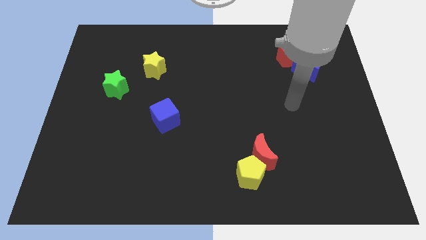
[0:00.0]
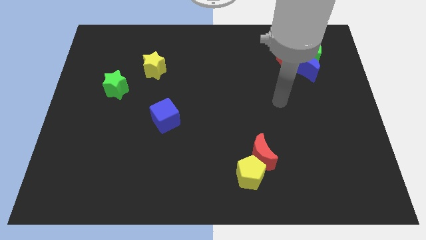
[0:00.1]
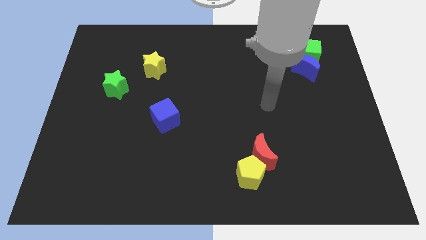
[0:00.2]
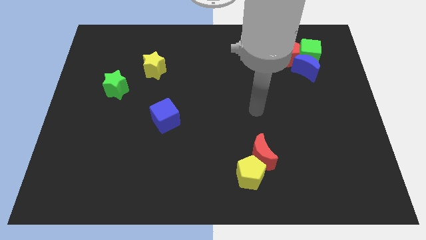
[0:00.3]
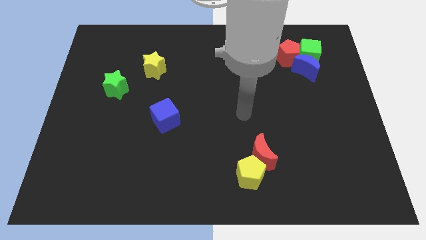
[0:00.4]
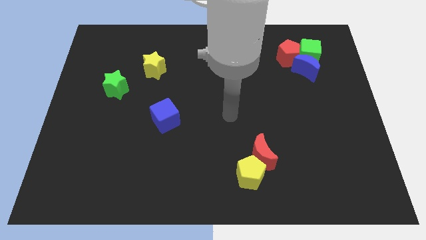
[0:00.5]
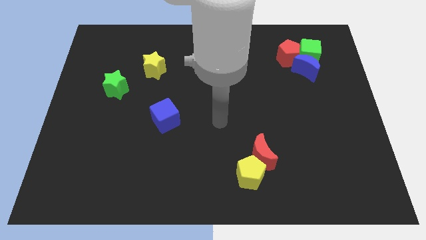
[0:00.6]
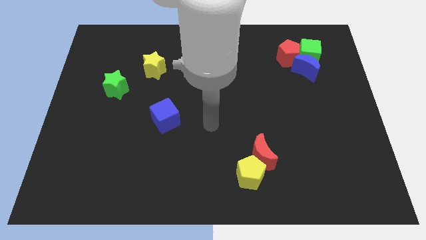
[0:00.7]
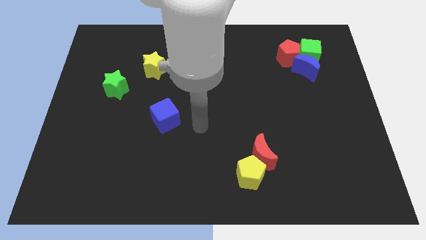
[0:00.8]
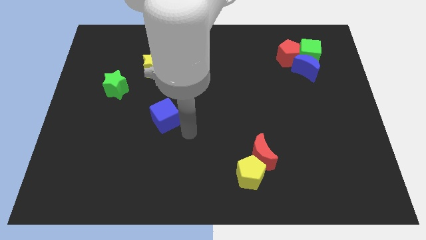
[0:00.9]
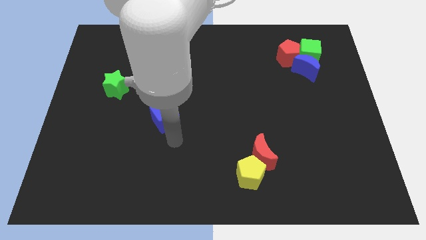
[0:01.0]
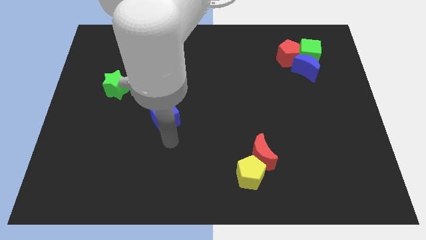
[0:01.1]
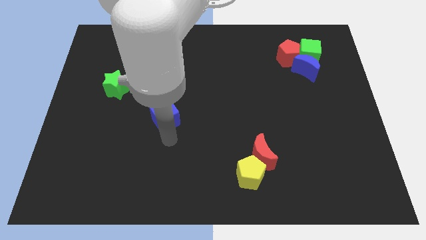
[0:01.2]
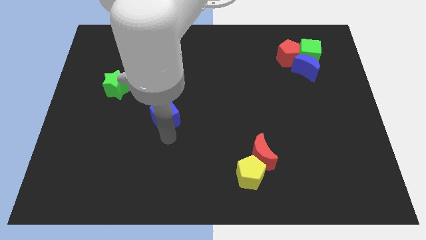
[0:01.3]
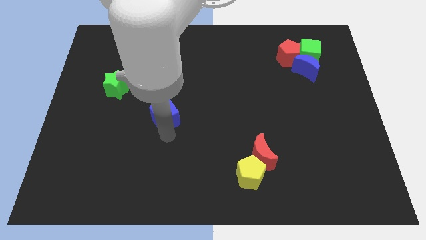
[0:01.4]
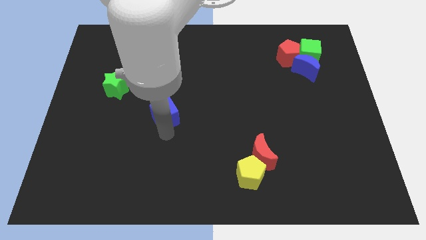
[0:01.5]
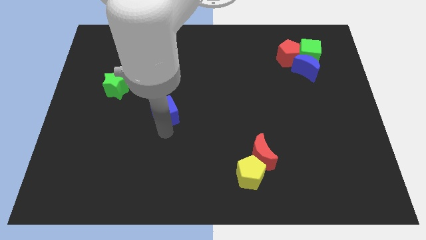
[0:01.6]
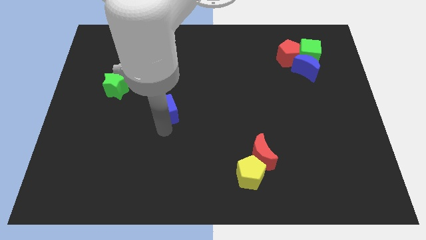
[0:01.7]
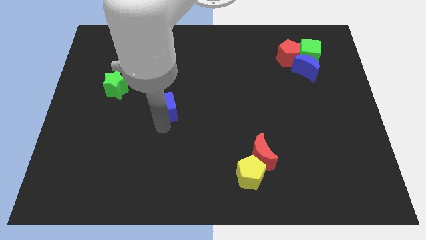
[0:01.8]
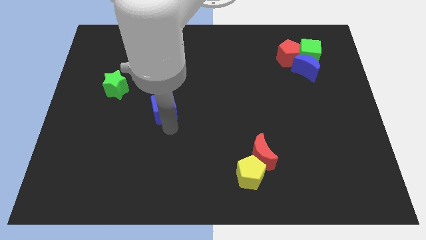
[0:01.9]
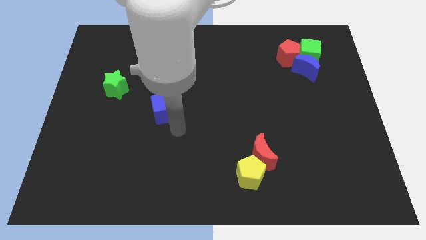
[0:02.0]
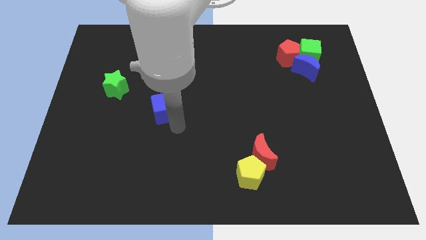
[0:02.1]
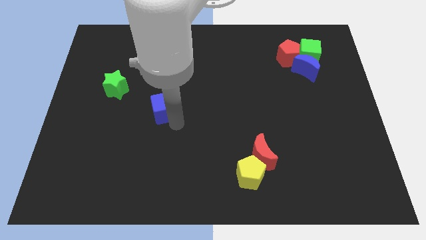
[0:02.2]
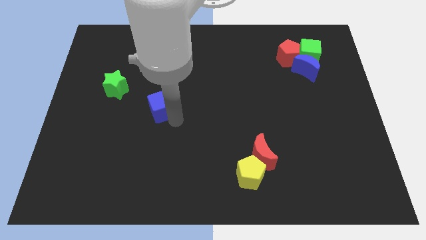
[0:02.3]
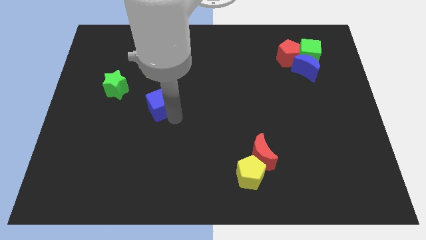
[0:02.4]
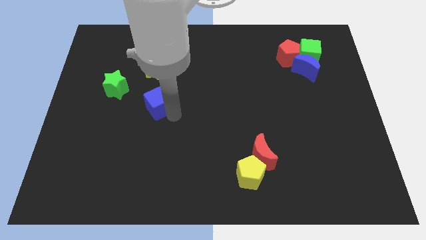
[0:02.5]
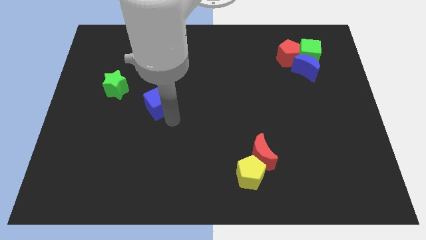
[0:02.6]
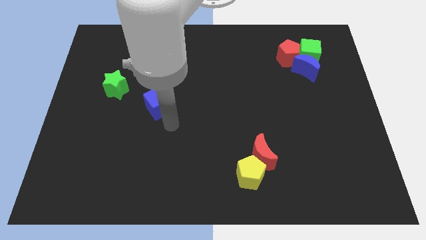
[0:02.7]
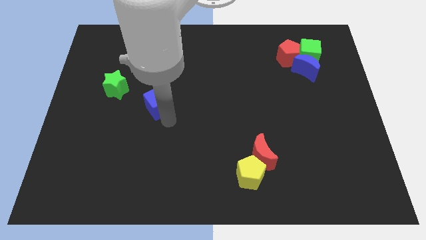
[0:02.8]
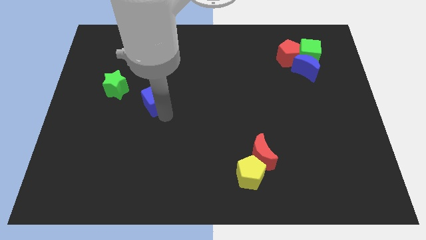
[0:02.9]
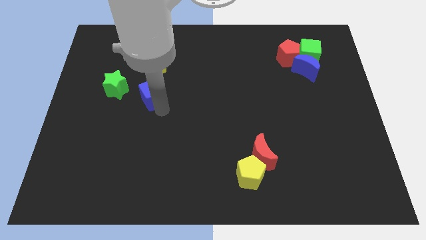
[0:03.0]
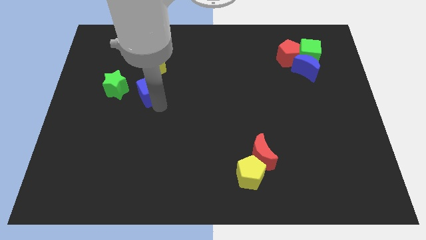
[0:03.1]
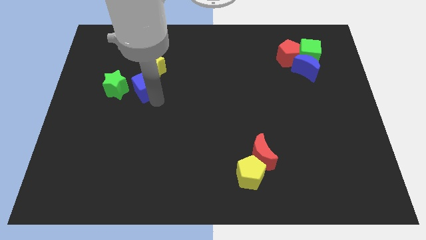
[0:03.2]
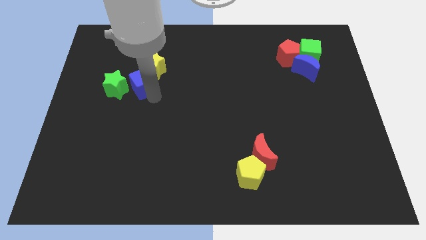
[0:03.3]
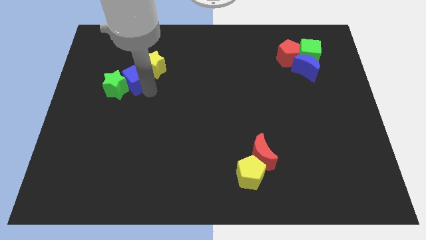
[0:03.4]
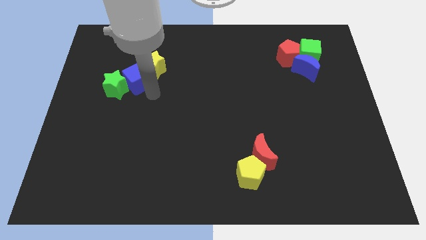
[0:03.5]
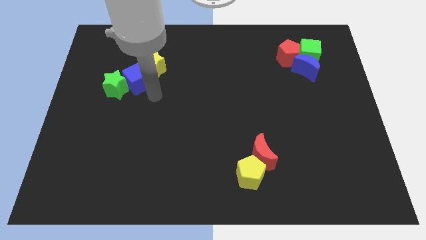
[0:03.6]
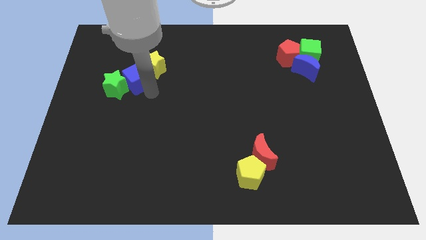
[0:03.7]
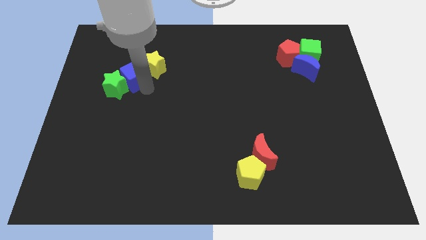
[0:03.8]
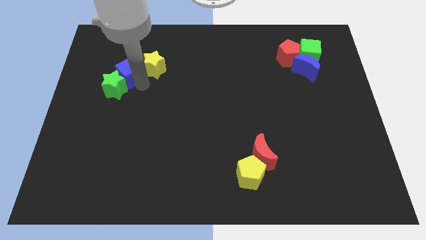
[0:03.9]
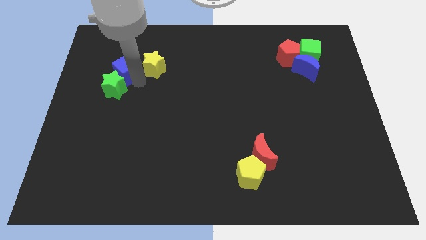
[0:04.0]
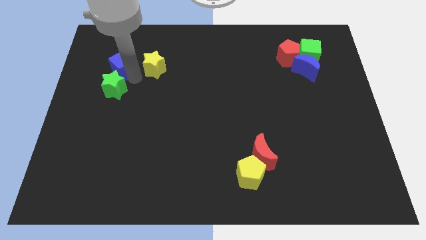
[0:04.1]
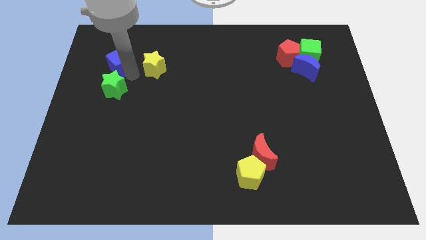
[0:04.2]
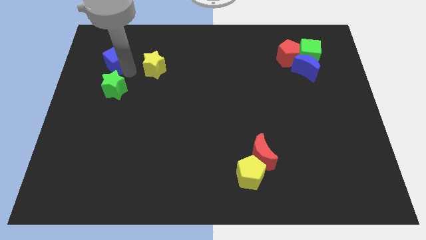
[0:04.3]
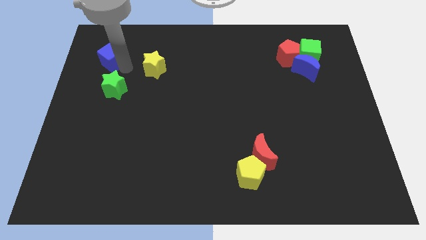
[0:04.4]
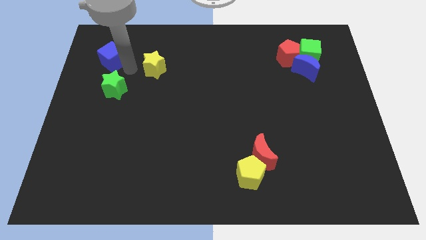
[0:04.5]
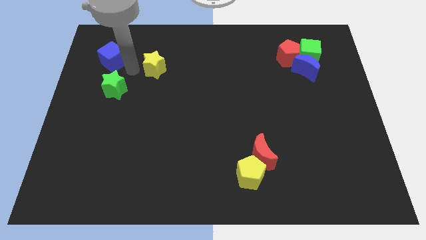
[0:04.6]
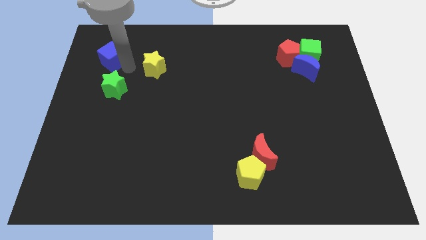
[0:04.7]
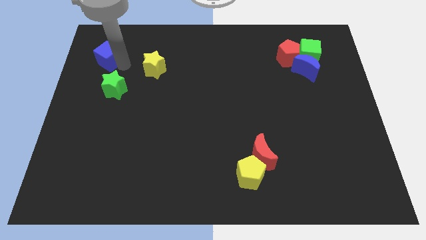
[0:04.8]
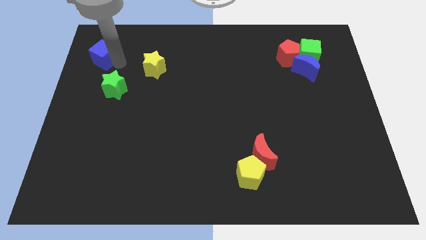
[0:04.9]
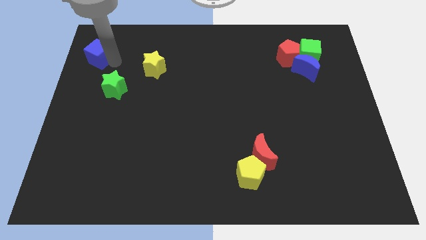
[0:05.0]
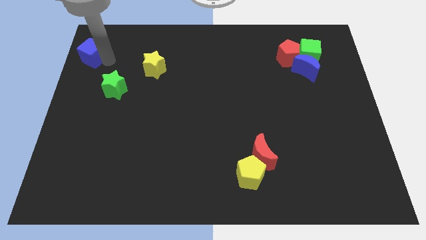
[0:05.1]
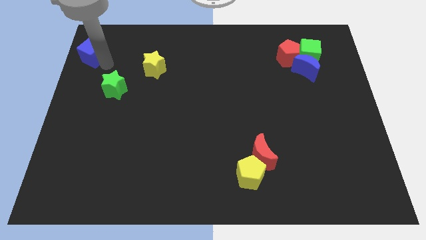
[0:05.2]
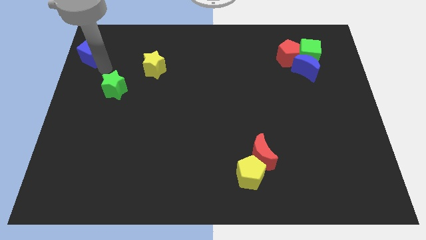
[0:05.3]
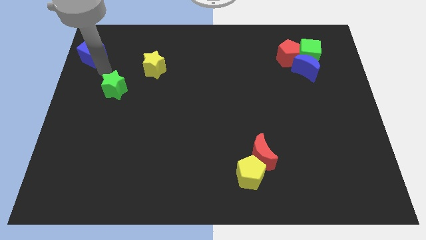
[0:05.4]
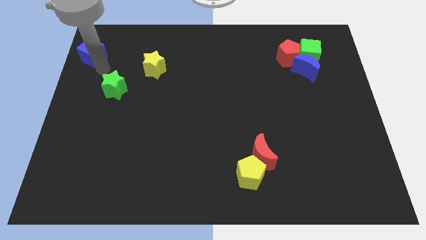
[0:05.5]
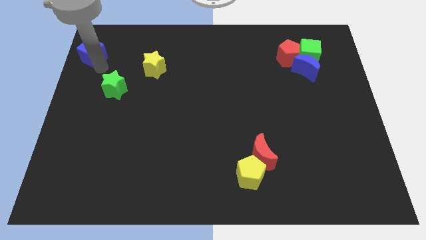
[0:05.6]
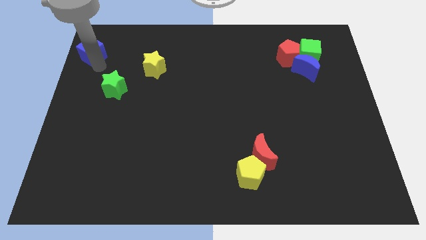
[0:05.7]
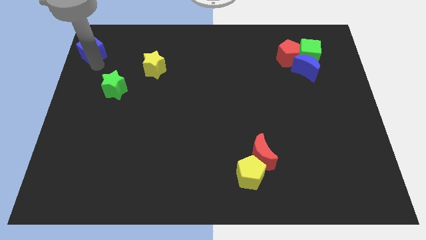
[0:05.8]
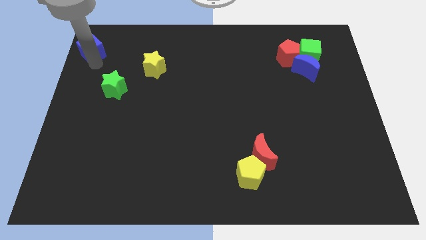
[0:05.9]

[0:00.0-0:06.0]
slide the blue cube to the top left corner

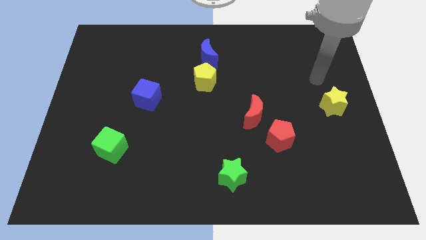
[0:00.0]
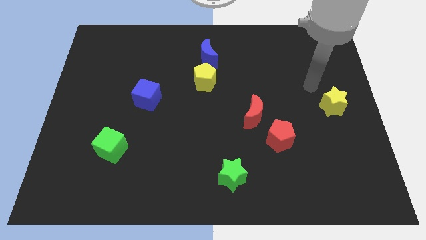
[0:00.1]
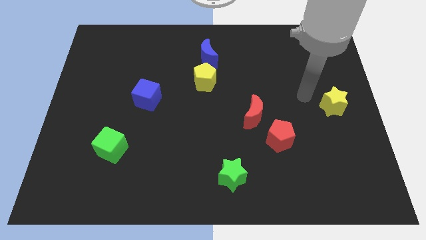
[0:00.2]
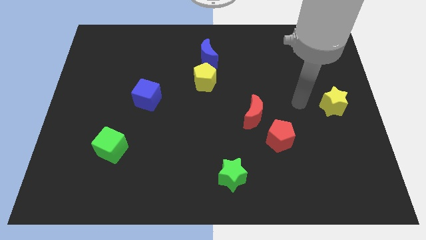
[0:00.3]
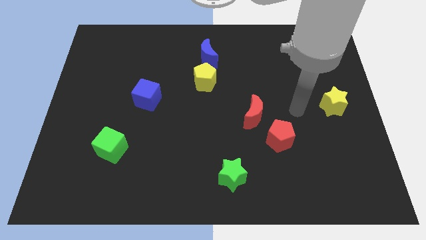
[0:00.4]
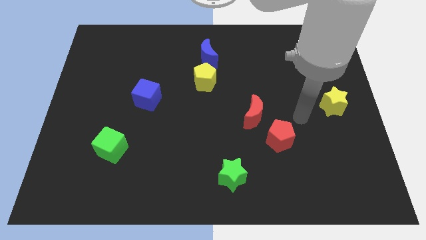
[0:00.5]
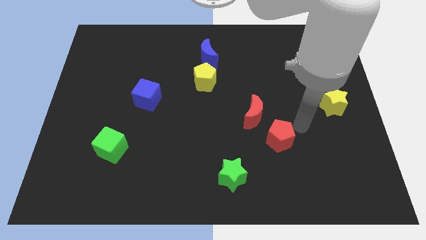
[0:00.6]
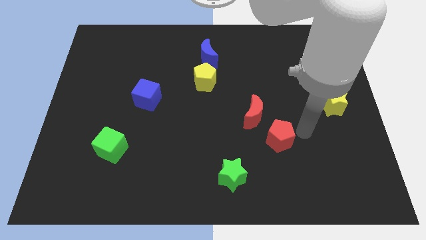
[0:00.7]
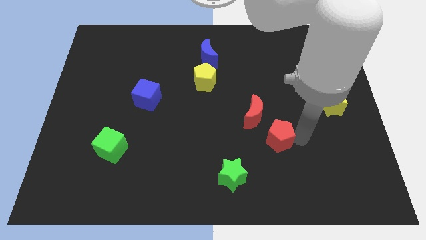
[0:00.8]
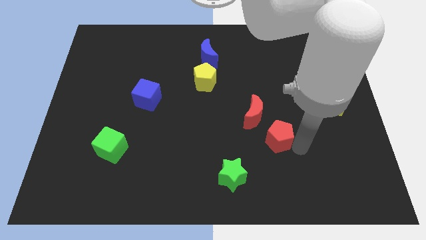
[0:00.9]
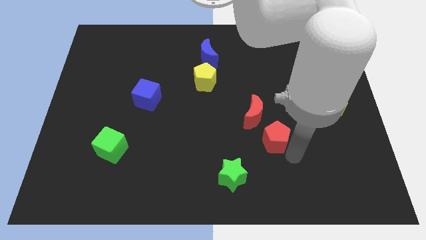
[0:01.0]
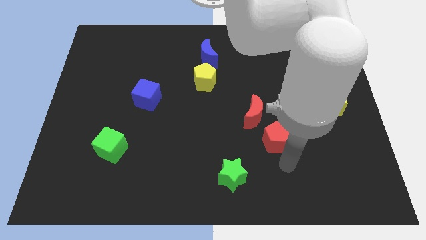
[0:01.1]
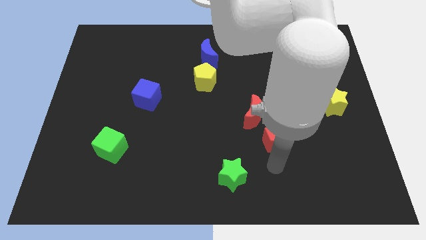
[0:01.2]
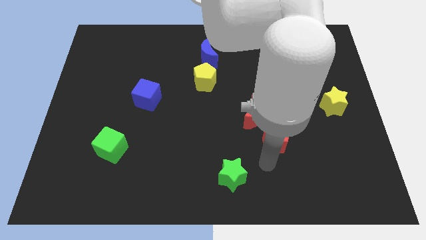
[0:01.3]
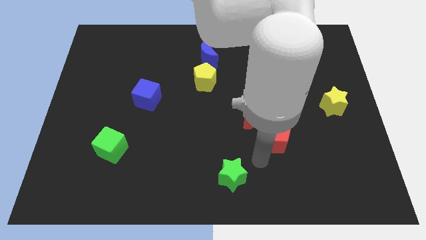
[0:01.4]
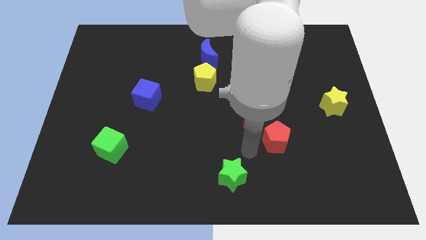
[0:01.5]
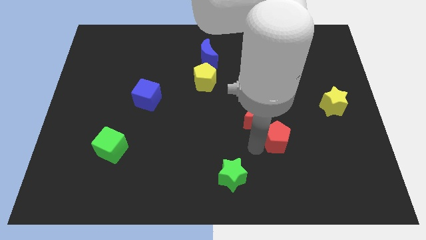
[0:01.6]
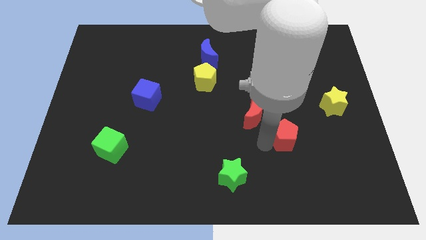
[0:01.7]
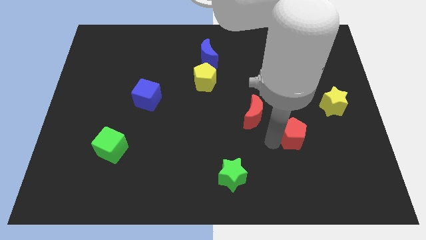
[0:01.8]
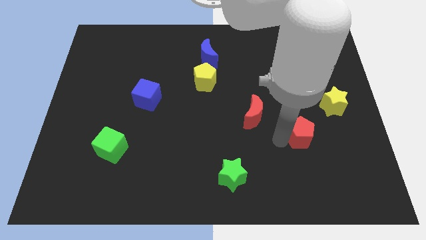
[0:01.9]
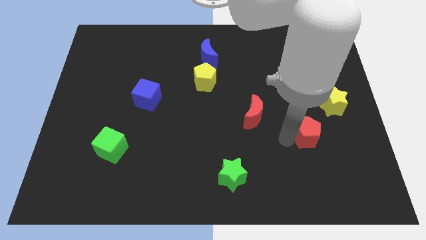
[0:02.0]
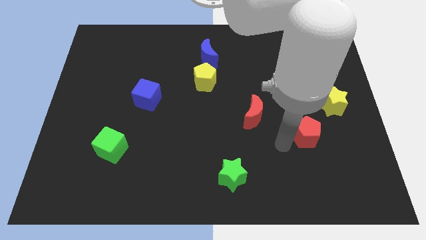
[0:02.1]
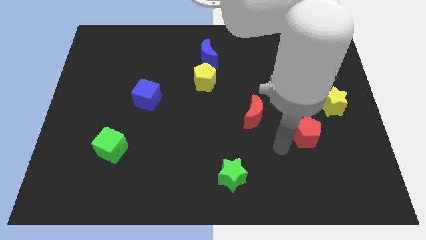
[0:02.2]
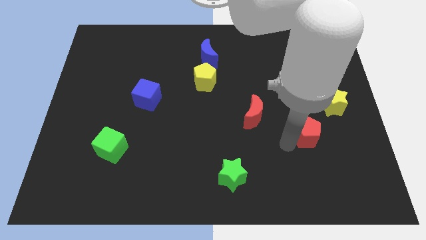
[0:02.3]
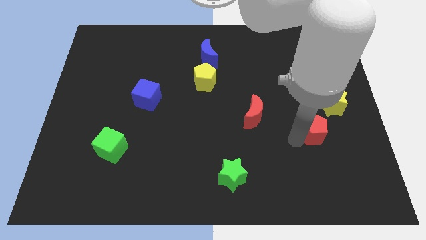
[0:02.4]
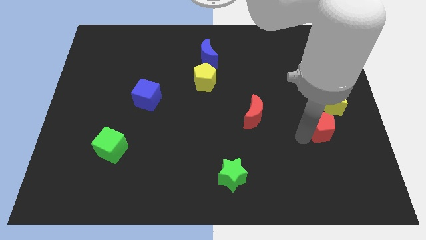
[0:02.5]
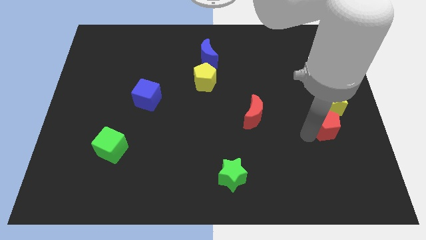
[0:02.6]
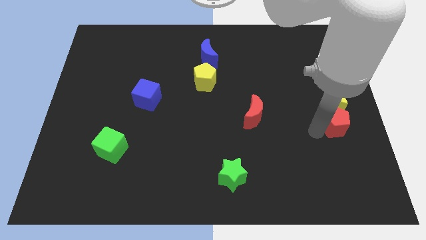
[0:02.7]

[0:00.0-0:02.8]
slide the red pentagon to the right side
